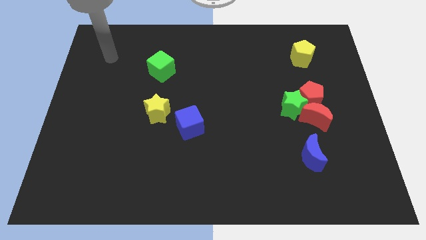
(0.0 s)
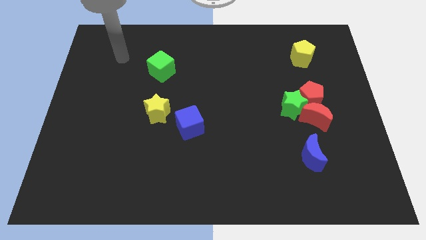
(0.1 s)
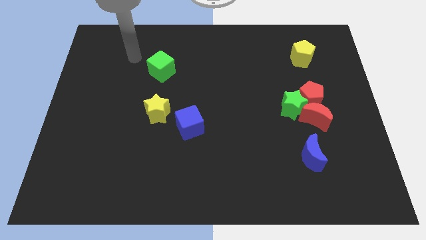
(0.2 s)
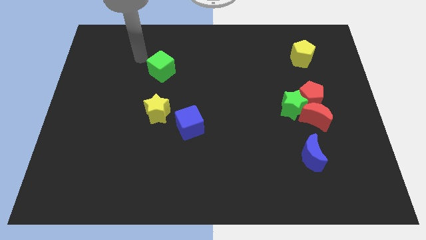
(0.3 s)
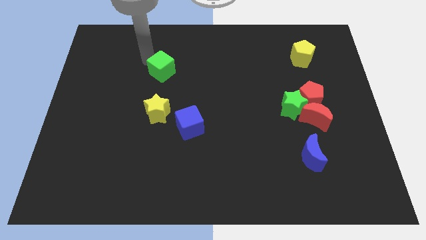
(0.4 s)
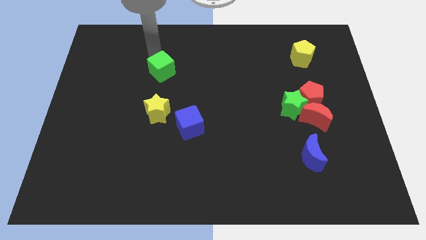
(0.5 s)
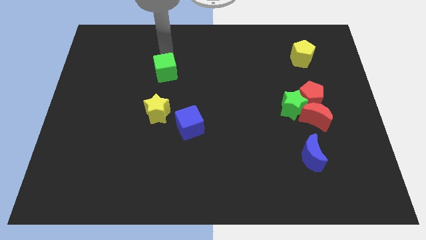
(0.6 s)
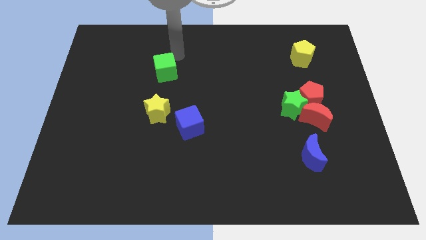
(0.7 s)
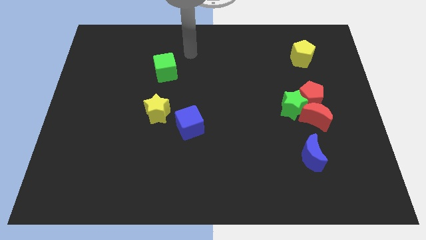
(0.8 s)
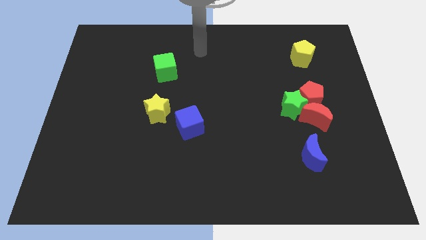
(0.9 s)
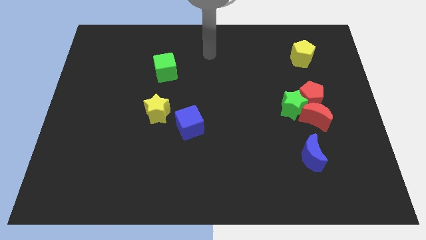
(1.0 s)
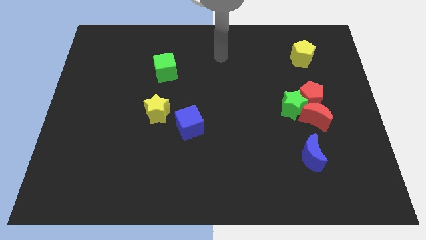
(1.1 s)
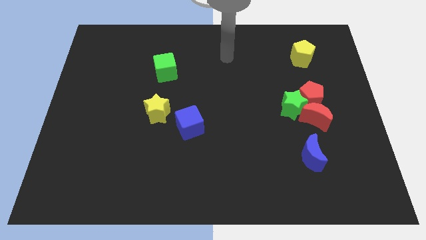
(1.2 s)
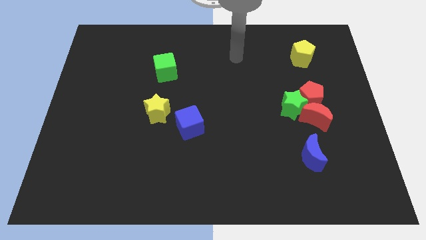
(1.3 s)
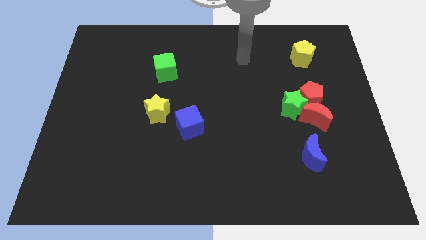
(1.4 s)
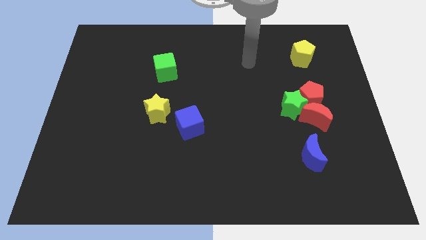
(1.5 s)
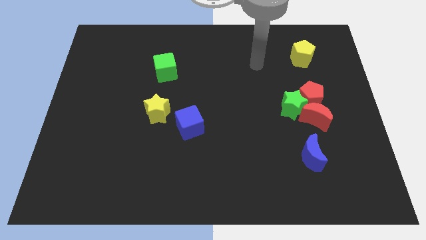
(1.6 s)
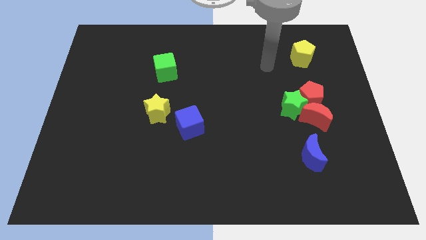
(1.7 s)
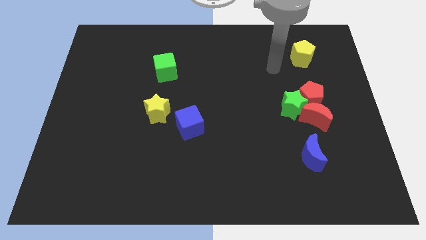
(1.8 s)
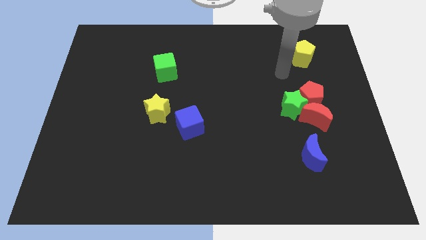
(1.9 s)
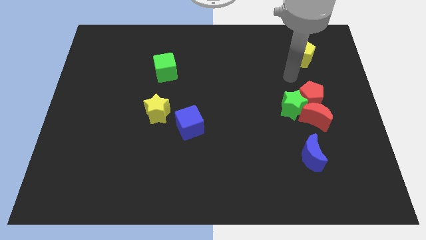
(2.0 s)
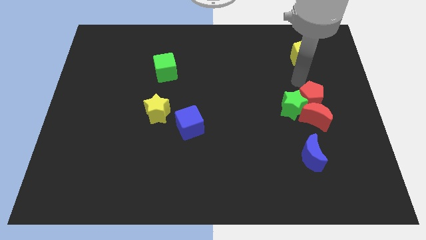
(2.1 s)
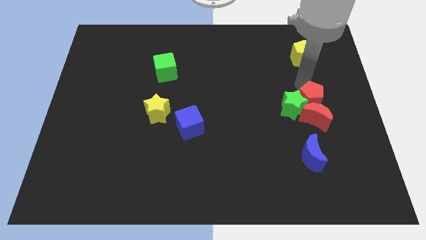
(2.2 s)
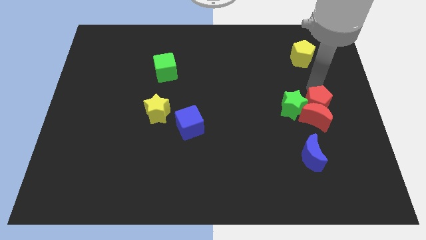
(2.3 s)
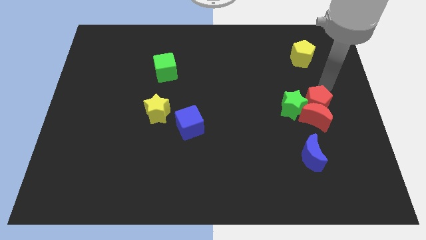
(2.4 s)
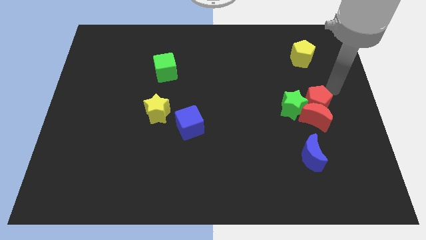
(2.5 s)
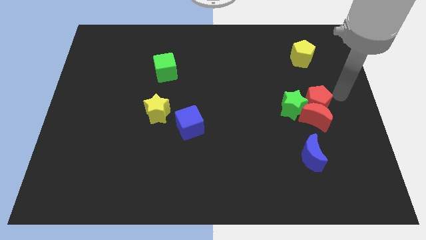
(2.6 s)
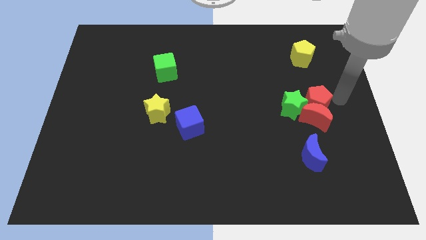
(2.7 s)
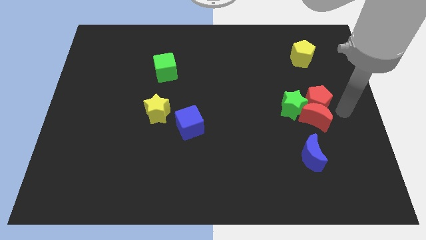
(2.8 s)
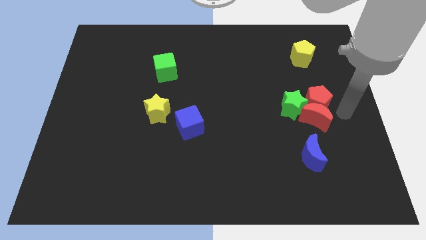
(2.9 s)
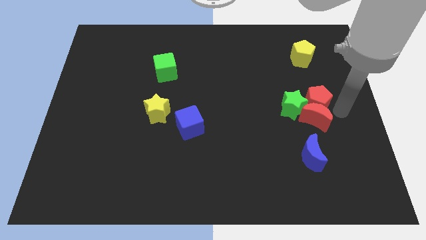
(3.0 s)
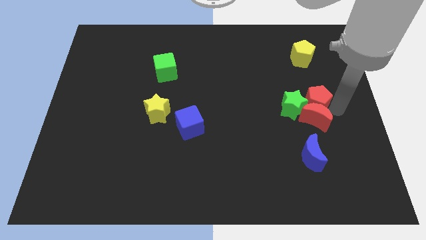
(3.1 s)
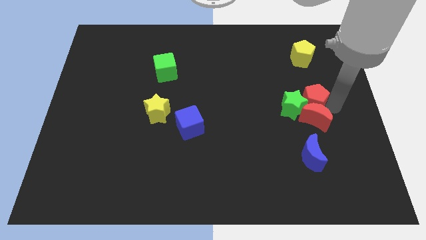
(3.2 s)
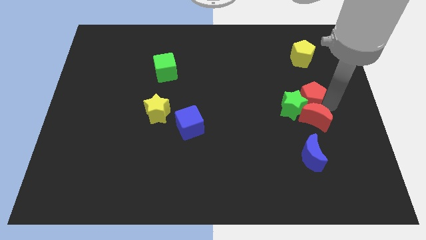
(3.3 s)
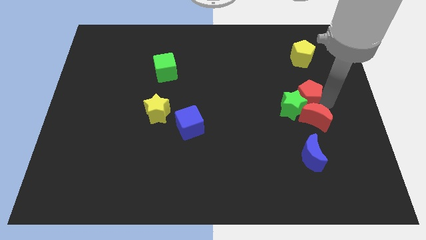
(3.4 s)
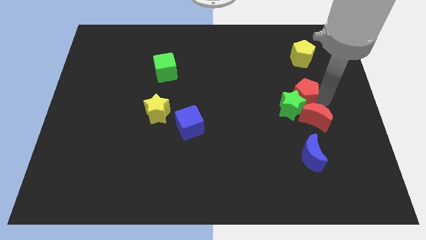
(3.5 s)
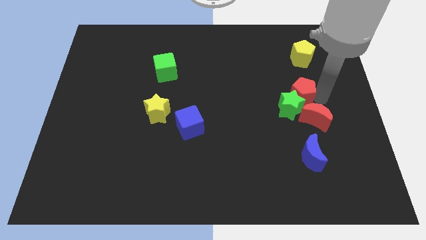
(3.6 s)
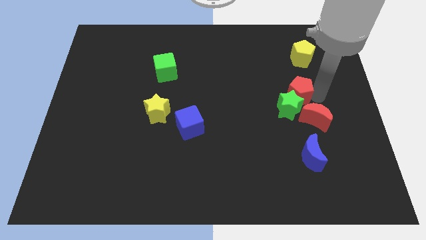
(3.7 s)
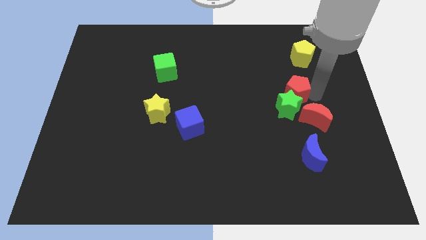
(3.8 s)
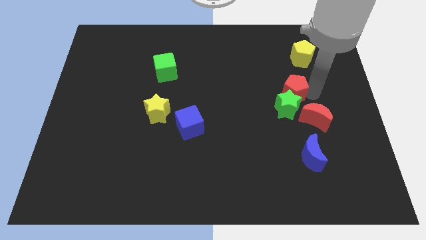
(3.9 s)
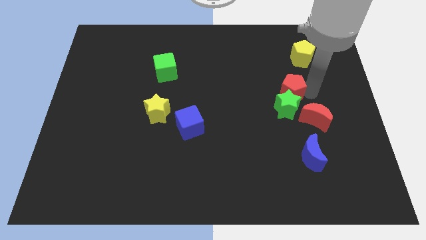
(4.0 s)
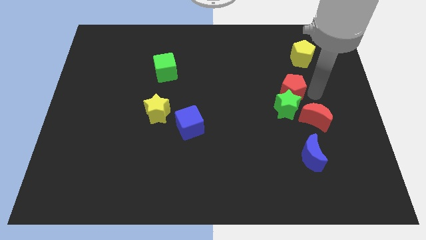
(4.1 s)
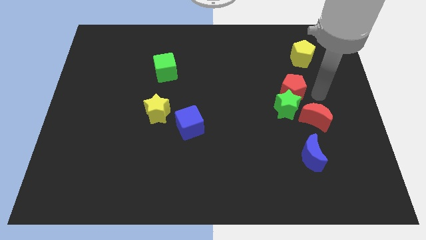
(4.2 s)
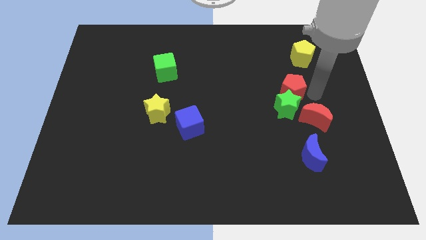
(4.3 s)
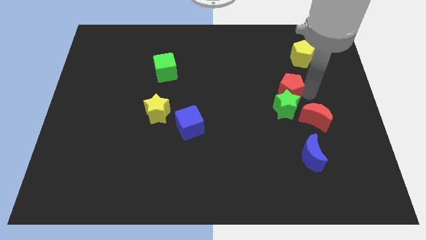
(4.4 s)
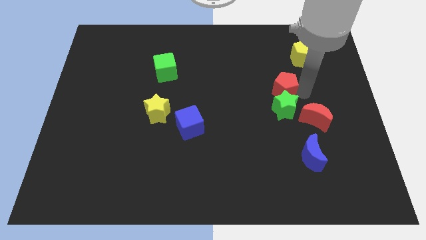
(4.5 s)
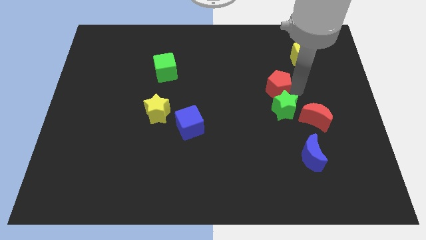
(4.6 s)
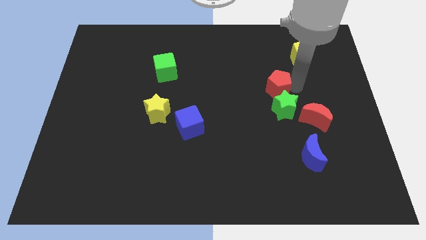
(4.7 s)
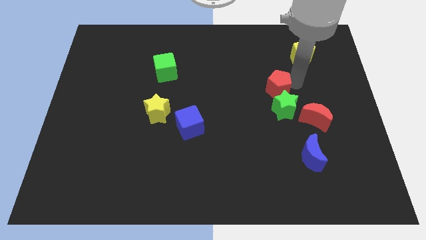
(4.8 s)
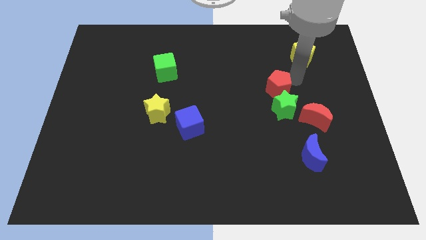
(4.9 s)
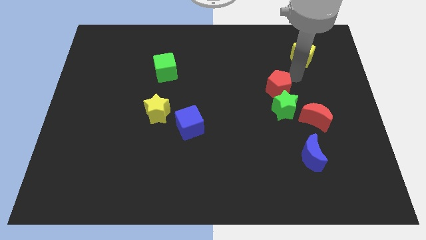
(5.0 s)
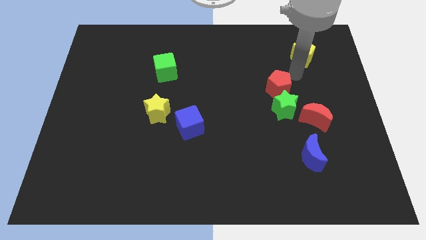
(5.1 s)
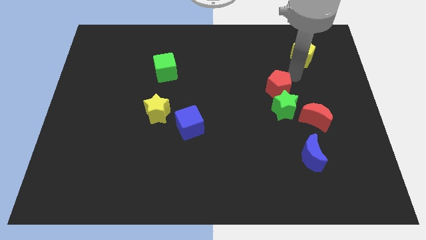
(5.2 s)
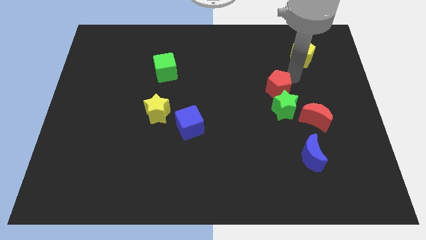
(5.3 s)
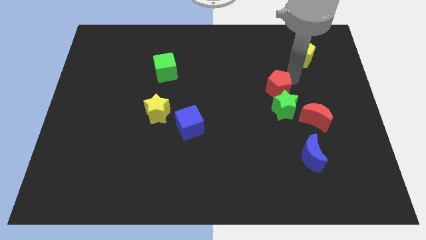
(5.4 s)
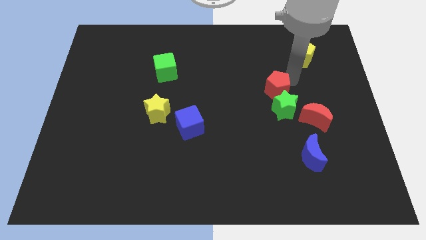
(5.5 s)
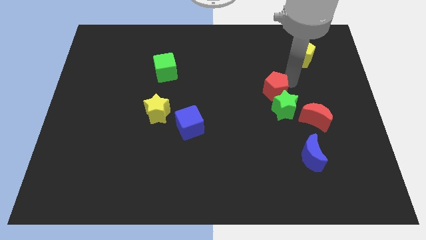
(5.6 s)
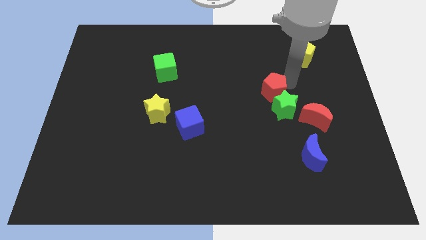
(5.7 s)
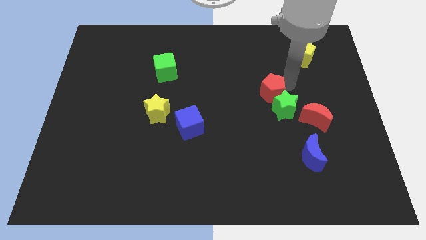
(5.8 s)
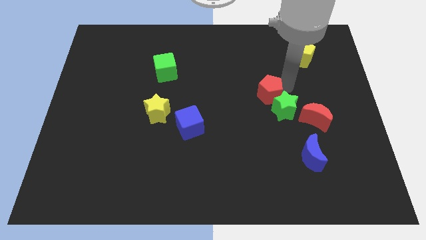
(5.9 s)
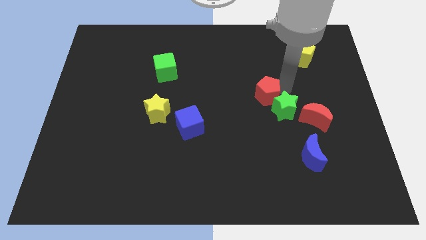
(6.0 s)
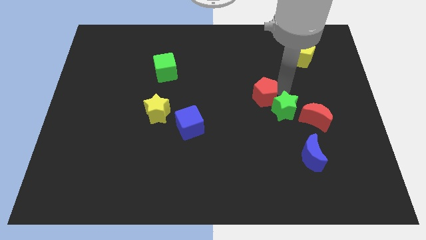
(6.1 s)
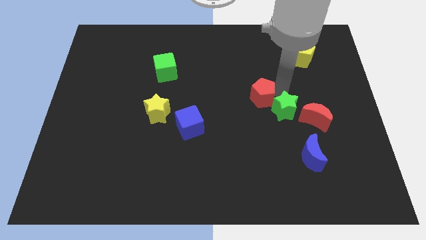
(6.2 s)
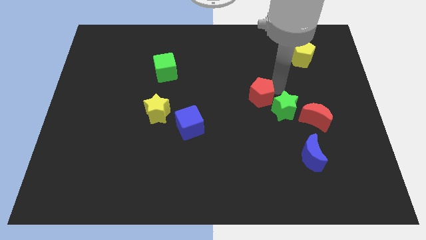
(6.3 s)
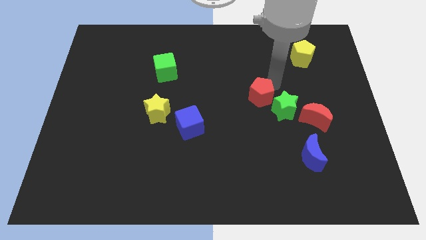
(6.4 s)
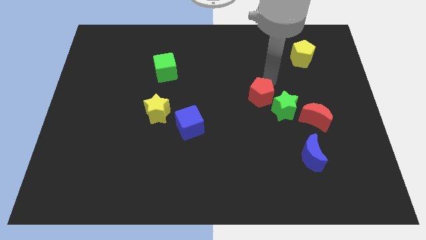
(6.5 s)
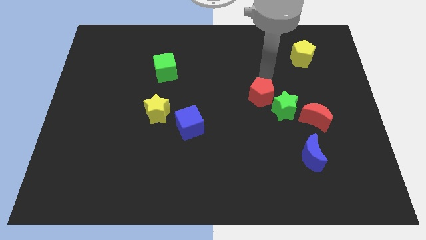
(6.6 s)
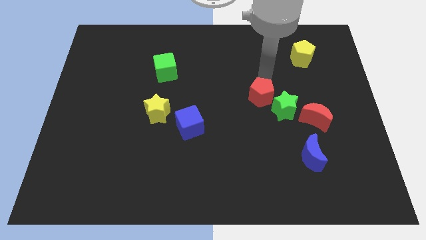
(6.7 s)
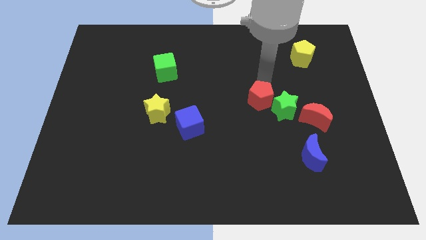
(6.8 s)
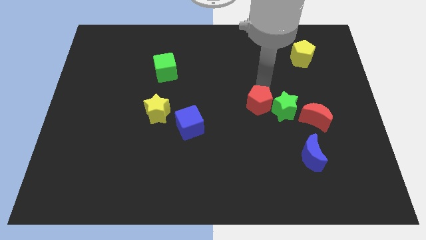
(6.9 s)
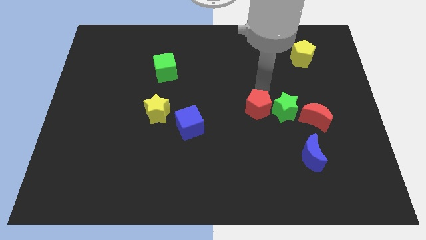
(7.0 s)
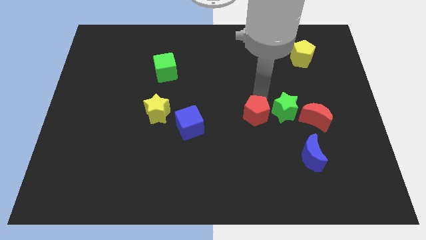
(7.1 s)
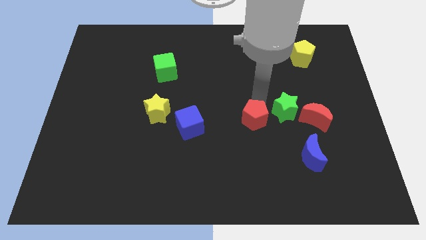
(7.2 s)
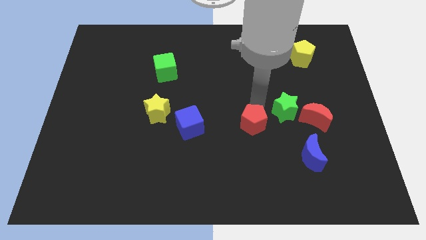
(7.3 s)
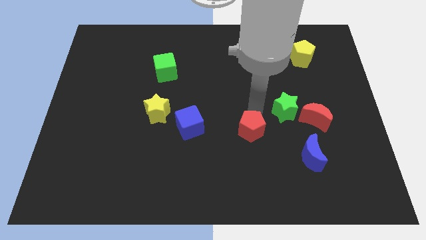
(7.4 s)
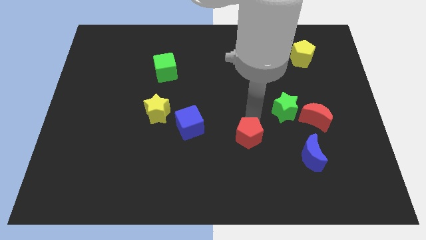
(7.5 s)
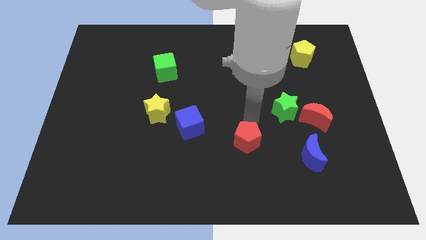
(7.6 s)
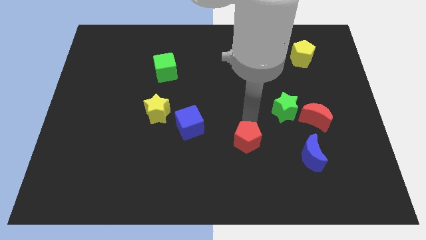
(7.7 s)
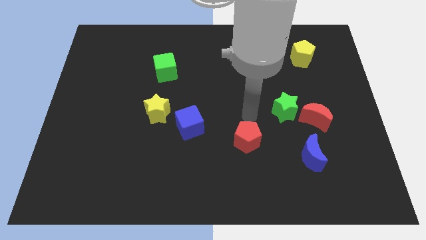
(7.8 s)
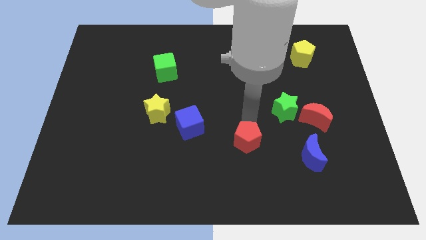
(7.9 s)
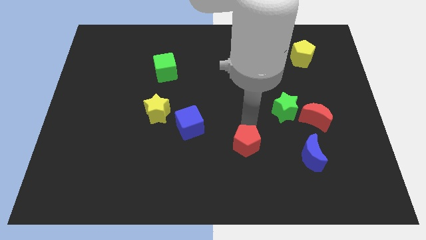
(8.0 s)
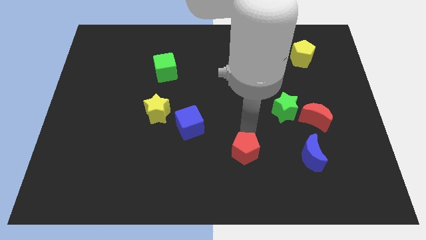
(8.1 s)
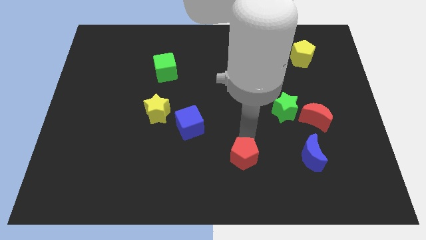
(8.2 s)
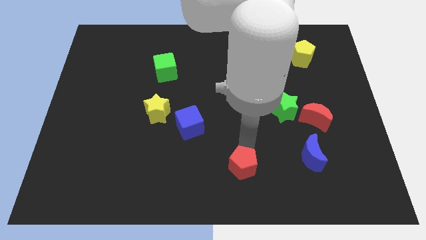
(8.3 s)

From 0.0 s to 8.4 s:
move the red pentagon to the bottom side
